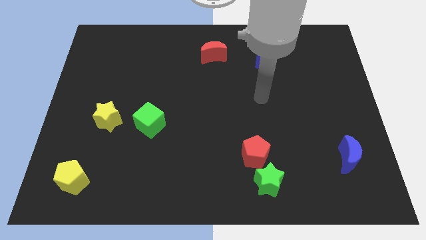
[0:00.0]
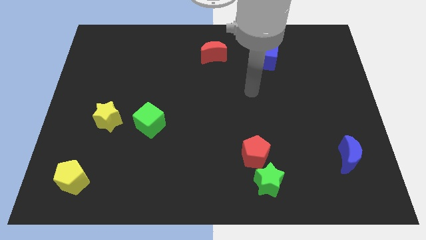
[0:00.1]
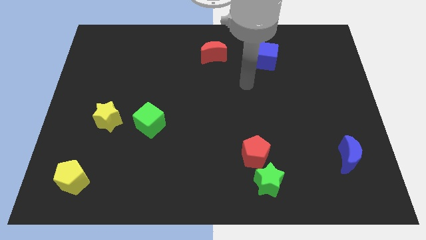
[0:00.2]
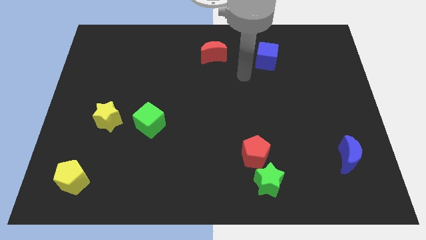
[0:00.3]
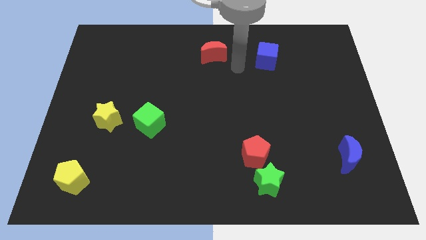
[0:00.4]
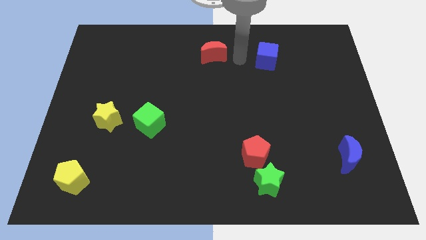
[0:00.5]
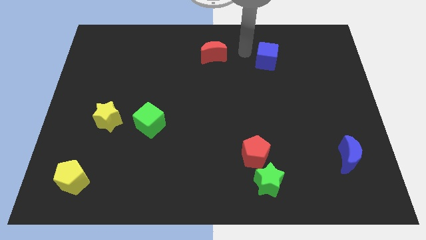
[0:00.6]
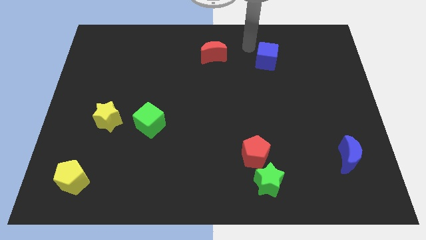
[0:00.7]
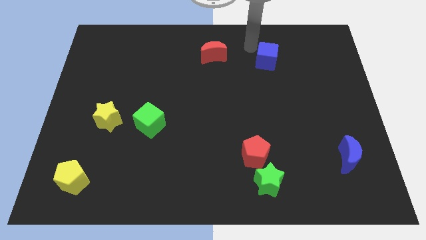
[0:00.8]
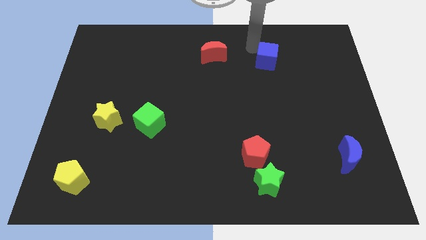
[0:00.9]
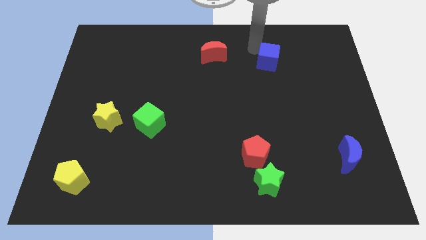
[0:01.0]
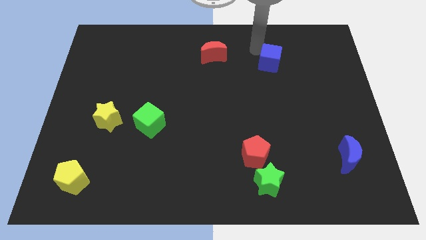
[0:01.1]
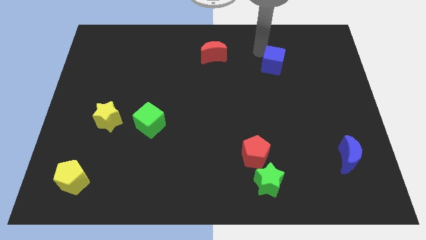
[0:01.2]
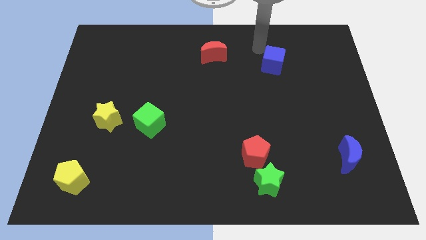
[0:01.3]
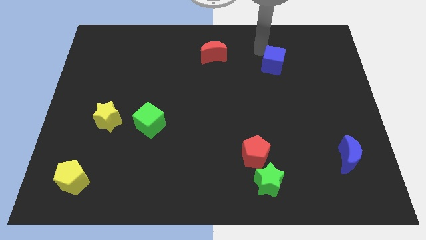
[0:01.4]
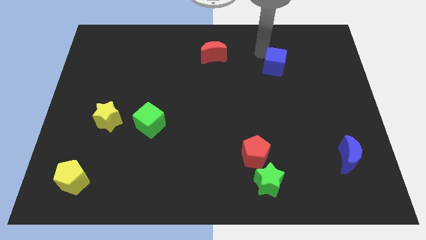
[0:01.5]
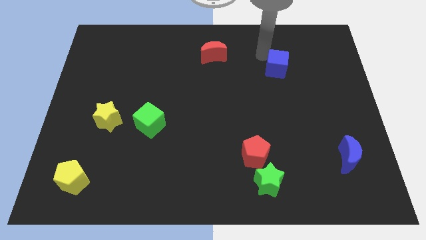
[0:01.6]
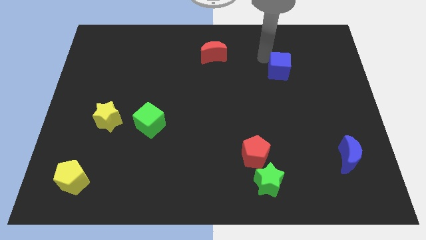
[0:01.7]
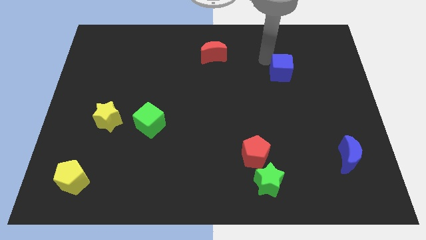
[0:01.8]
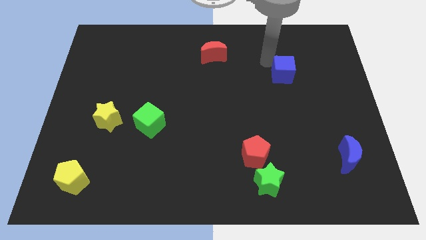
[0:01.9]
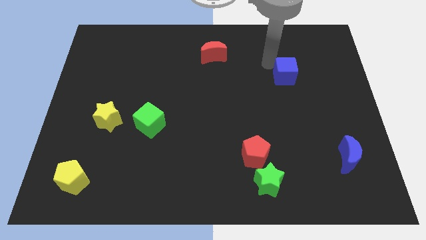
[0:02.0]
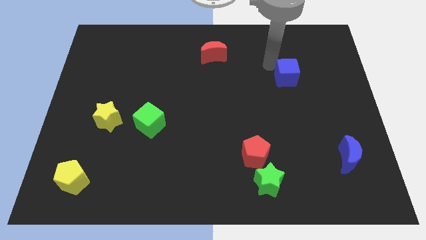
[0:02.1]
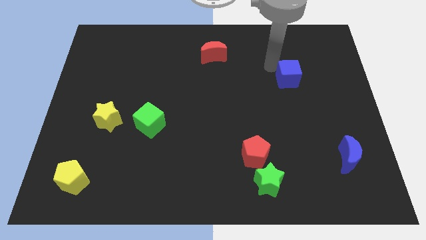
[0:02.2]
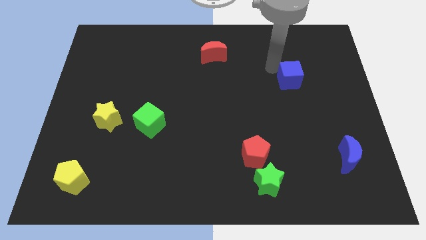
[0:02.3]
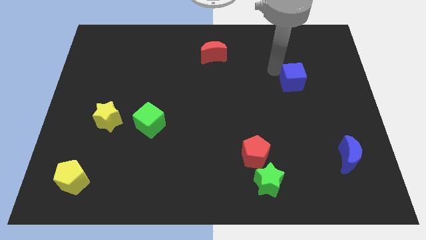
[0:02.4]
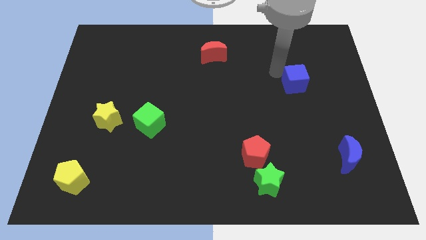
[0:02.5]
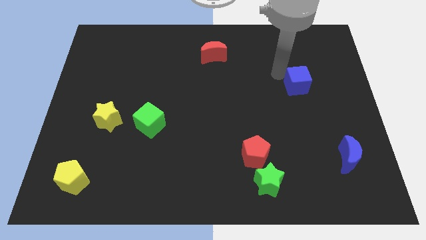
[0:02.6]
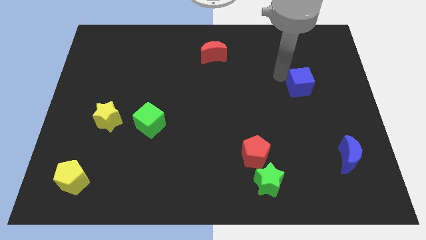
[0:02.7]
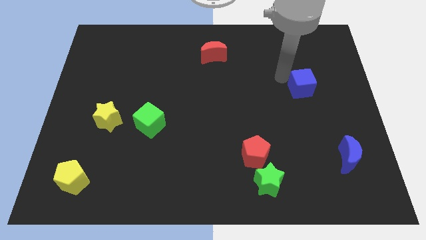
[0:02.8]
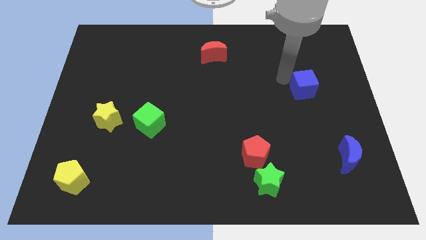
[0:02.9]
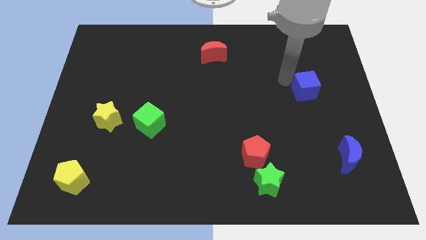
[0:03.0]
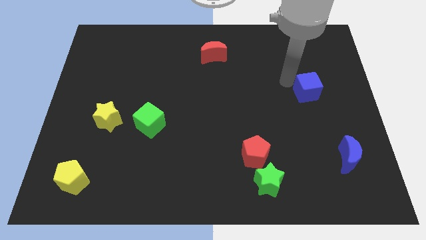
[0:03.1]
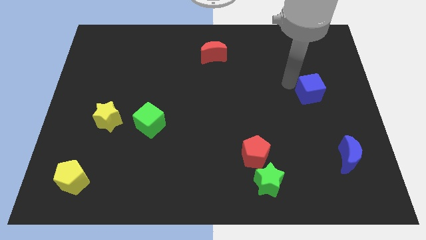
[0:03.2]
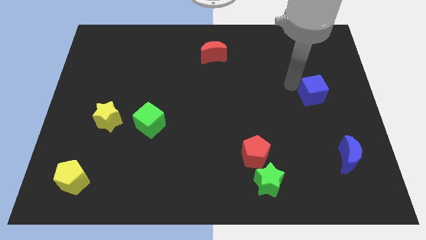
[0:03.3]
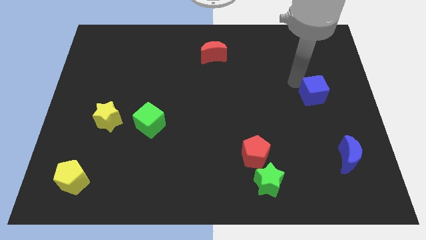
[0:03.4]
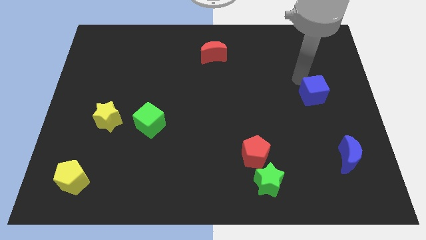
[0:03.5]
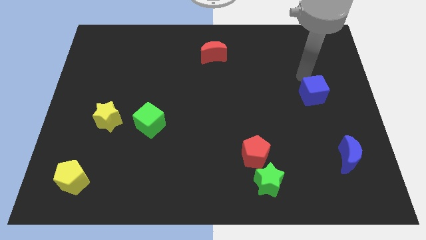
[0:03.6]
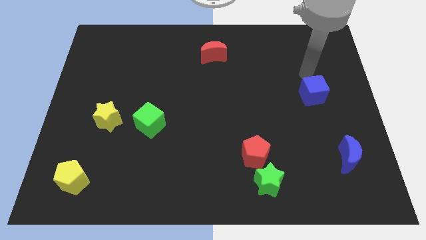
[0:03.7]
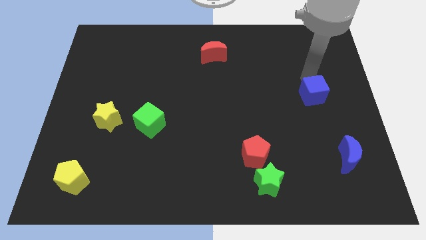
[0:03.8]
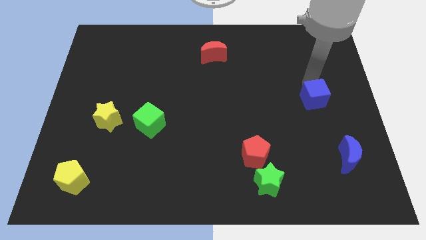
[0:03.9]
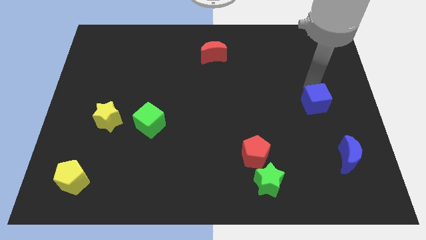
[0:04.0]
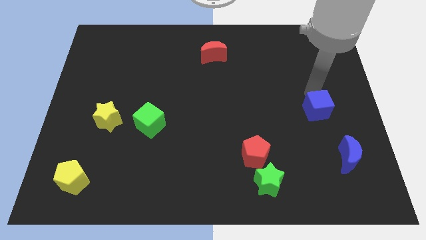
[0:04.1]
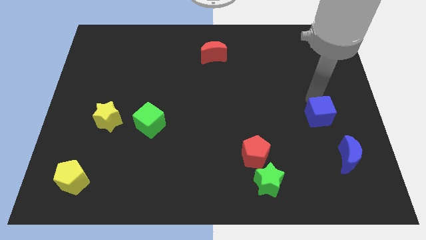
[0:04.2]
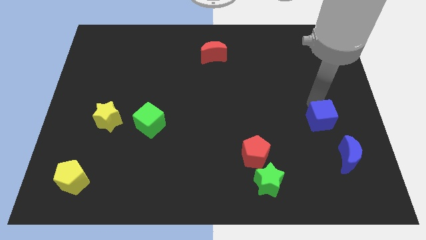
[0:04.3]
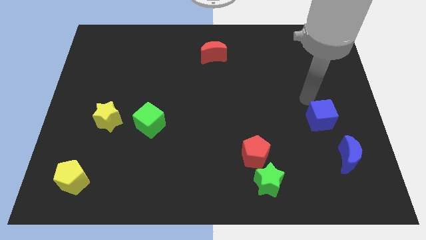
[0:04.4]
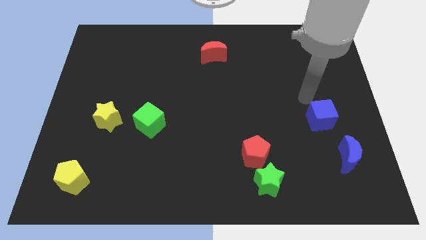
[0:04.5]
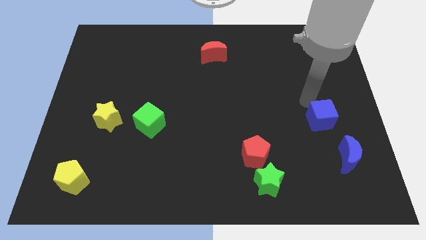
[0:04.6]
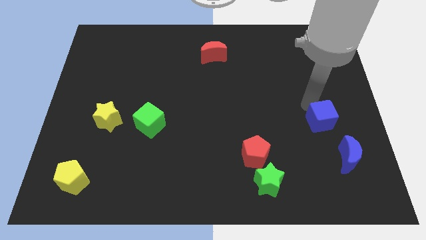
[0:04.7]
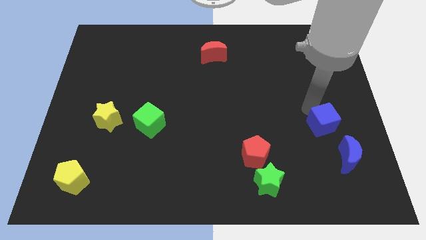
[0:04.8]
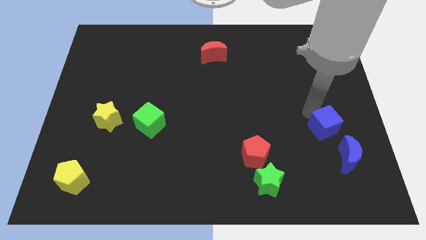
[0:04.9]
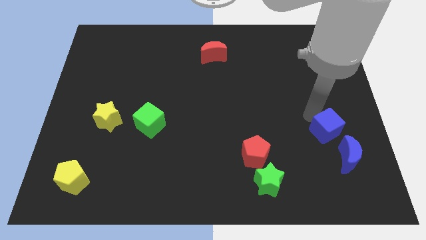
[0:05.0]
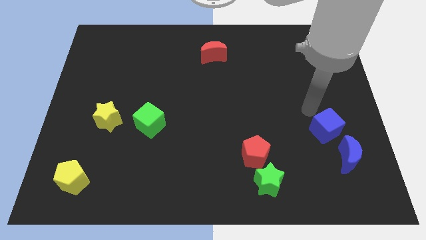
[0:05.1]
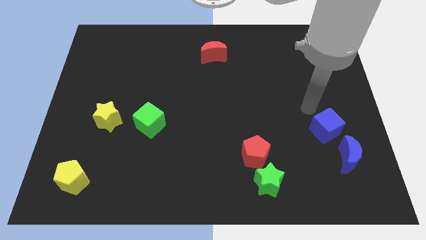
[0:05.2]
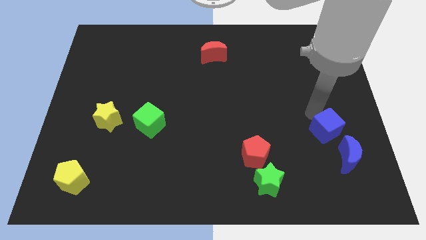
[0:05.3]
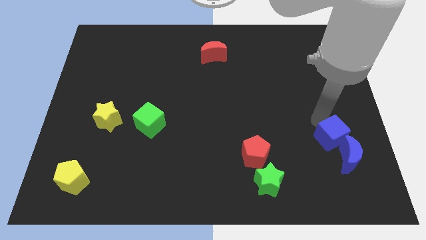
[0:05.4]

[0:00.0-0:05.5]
push the blue cube to the blue moon

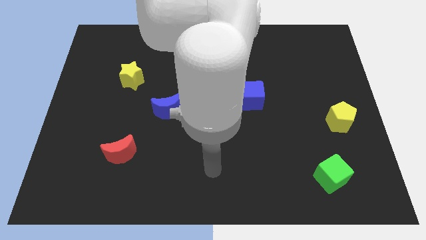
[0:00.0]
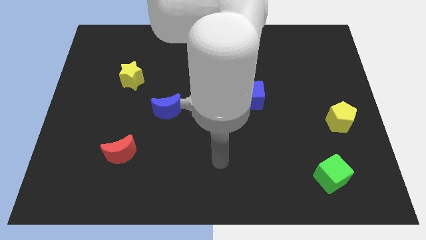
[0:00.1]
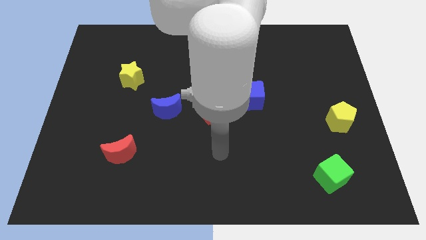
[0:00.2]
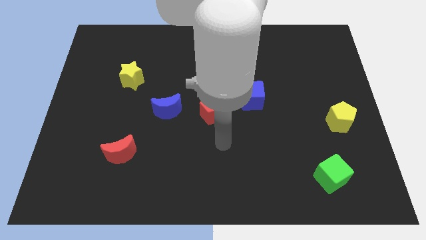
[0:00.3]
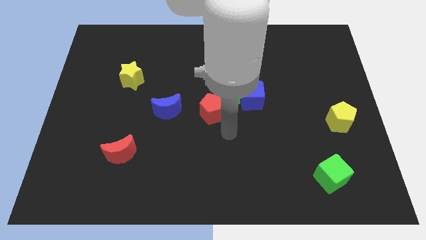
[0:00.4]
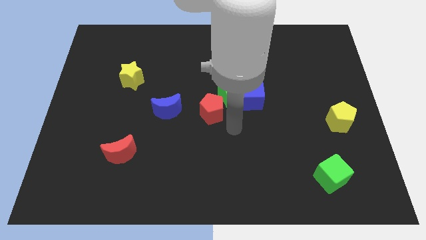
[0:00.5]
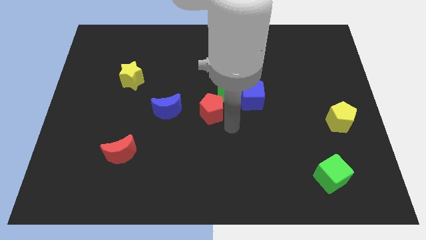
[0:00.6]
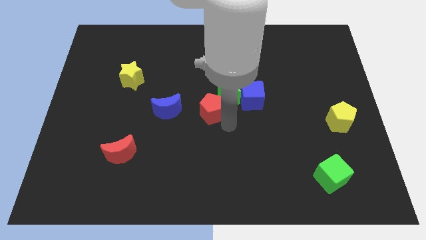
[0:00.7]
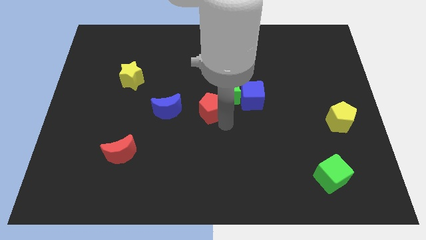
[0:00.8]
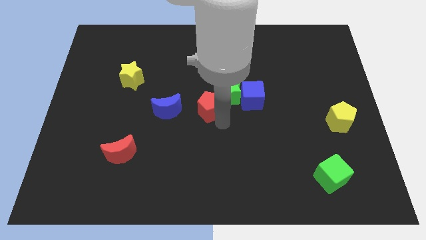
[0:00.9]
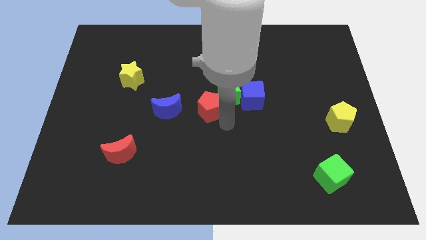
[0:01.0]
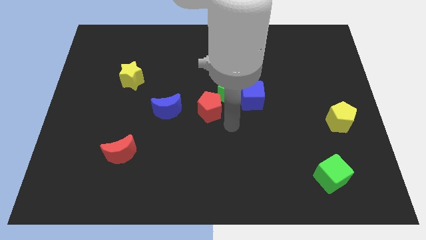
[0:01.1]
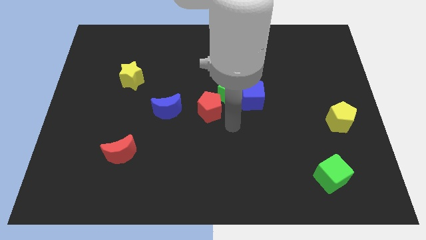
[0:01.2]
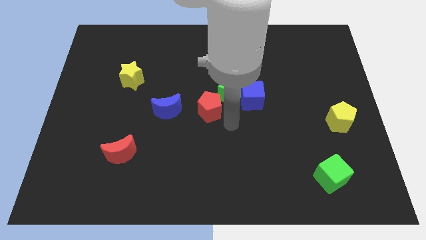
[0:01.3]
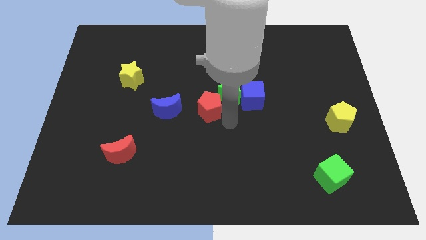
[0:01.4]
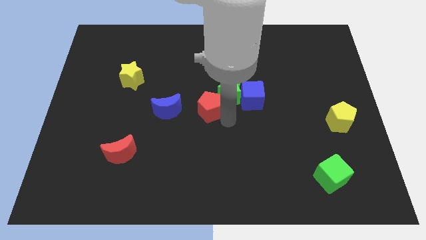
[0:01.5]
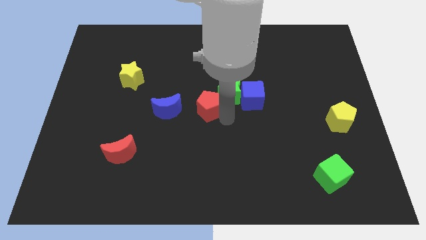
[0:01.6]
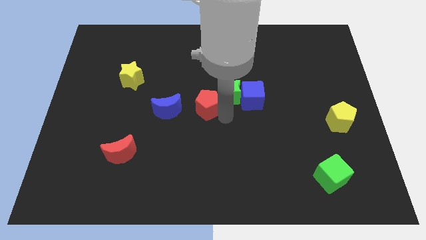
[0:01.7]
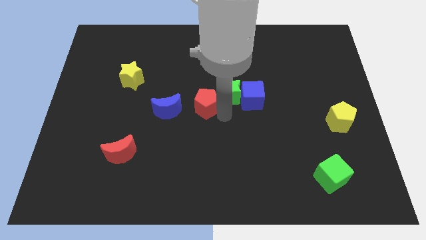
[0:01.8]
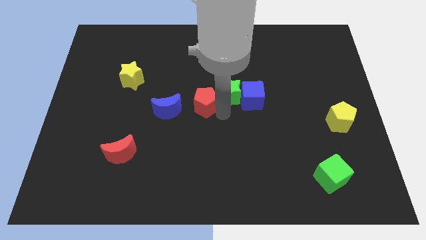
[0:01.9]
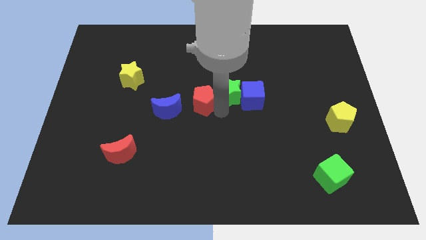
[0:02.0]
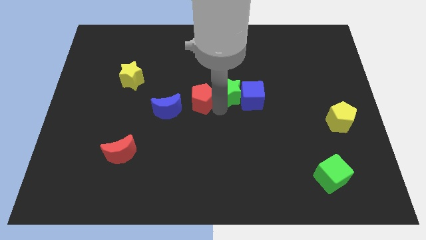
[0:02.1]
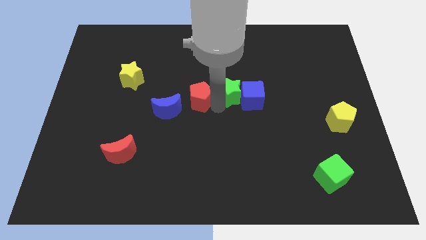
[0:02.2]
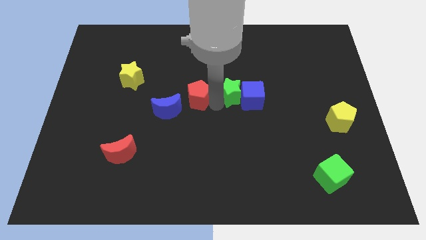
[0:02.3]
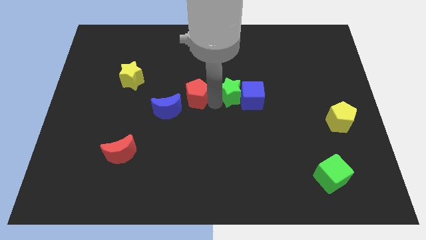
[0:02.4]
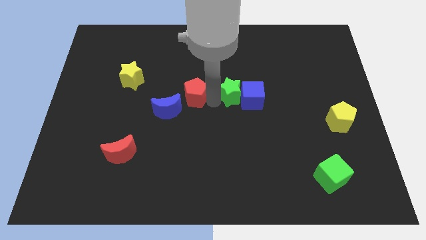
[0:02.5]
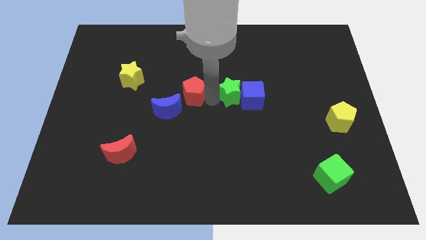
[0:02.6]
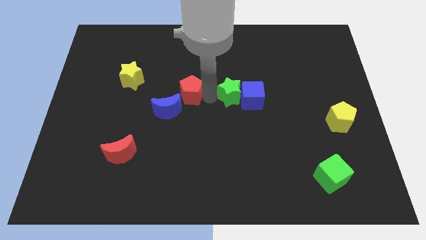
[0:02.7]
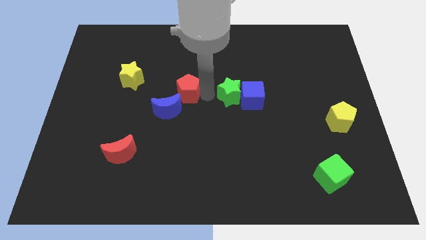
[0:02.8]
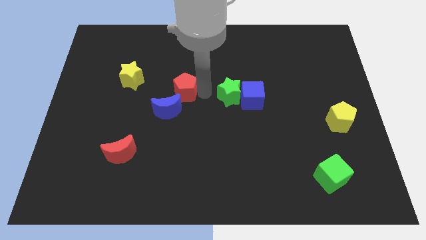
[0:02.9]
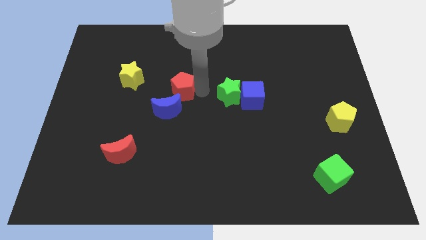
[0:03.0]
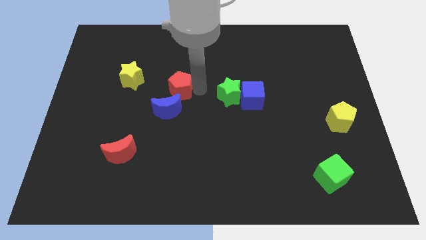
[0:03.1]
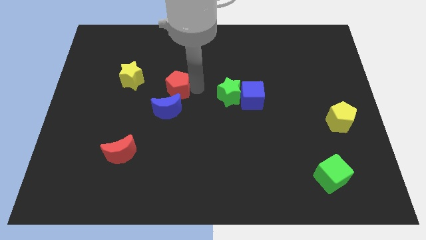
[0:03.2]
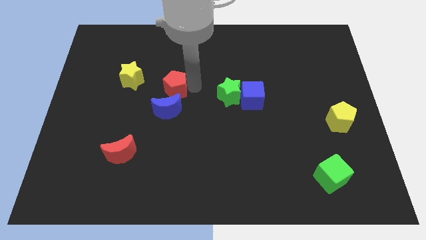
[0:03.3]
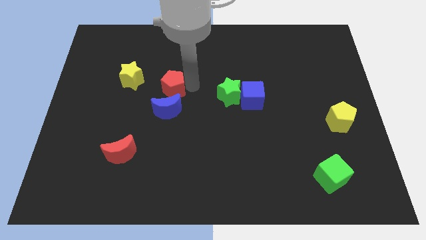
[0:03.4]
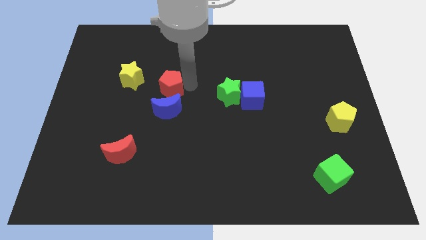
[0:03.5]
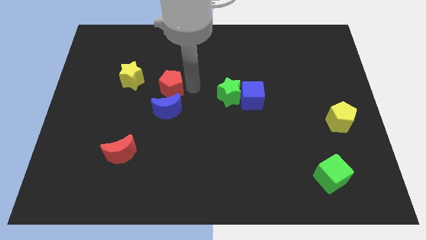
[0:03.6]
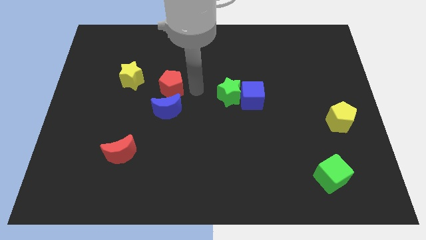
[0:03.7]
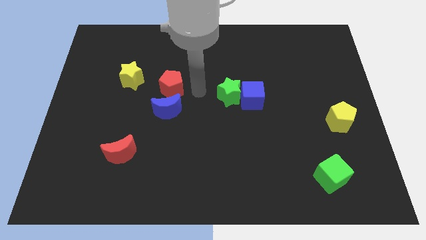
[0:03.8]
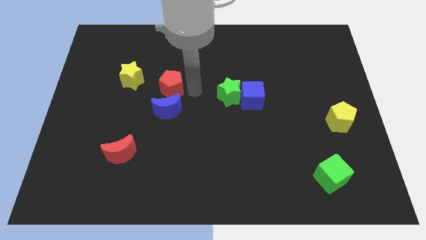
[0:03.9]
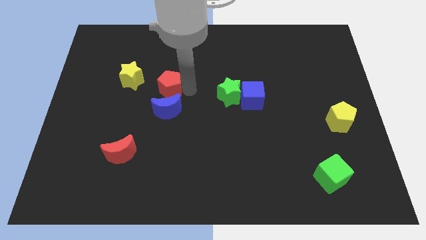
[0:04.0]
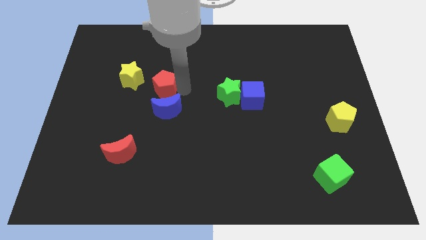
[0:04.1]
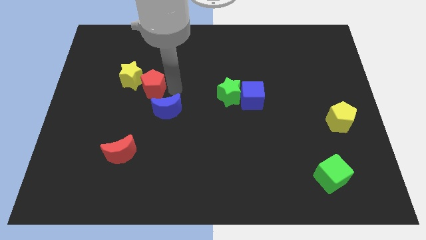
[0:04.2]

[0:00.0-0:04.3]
push the red pentagon towards the yellow star
